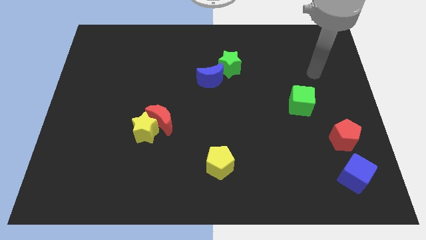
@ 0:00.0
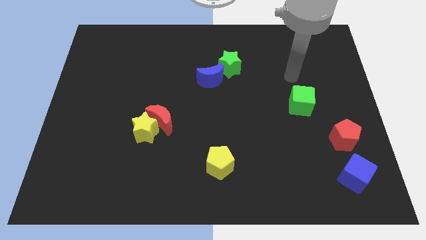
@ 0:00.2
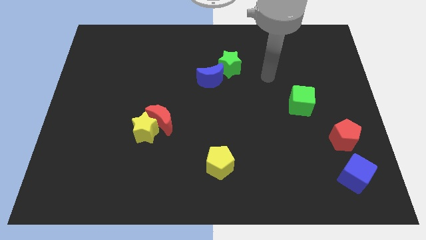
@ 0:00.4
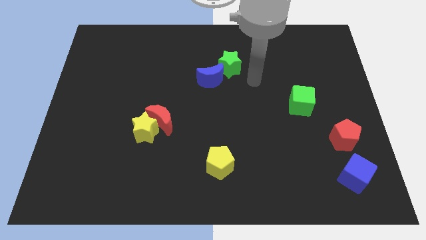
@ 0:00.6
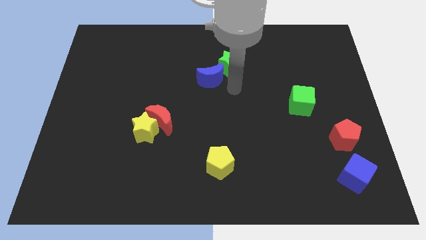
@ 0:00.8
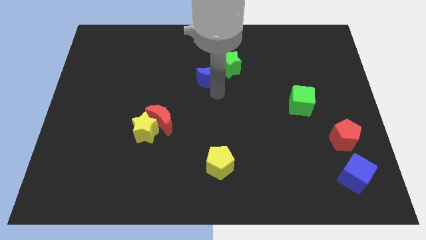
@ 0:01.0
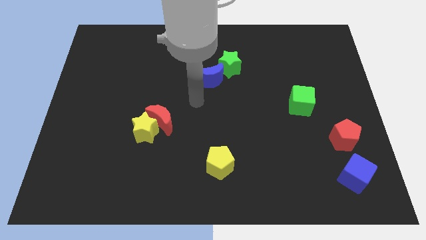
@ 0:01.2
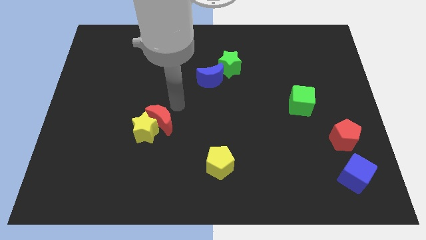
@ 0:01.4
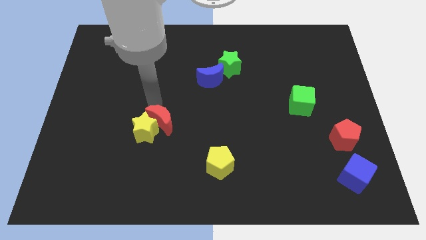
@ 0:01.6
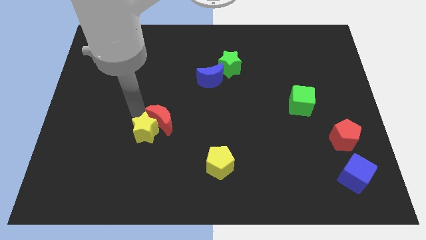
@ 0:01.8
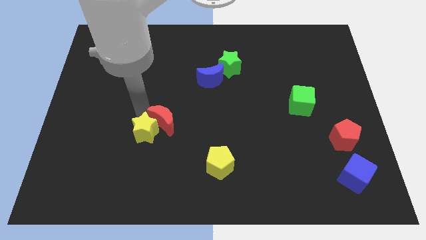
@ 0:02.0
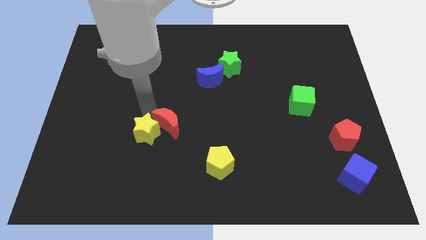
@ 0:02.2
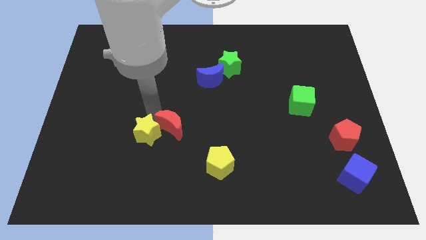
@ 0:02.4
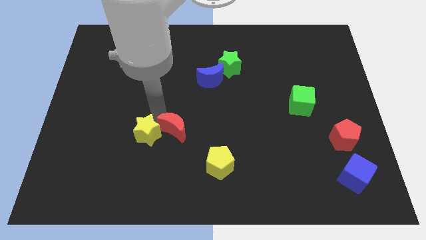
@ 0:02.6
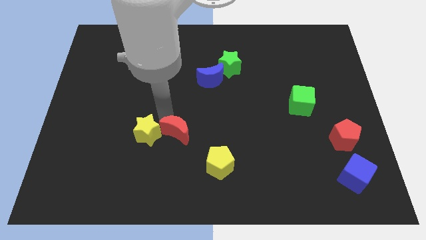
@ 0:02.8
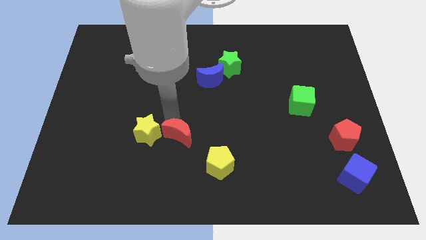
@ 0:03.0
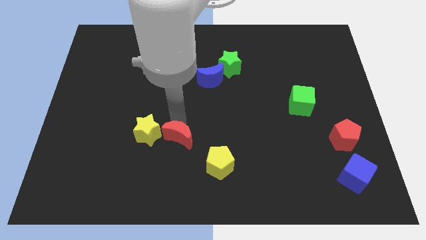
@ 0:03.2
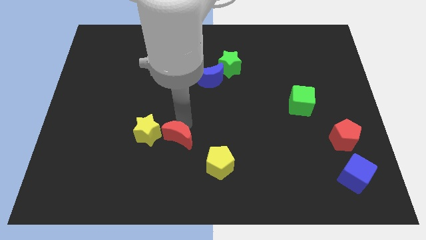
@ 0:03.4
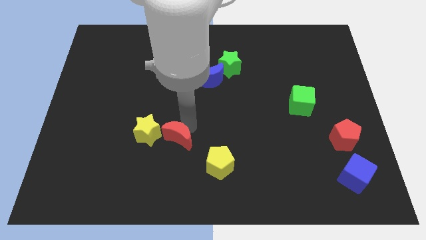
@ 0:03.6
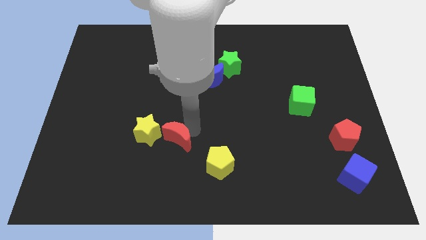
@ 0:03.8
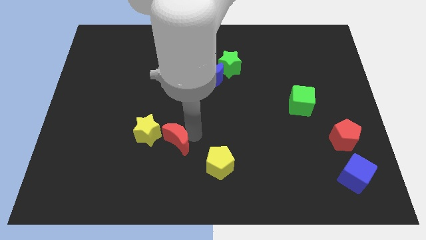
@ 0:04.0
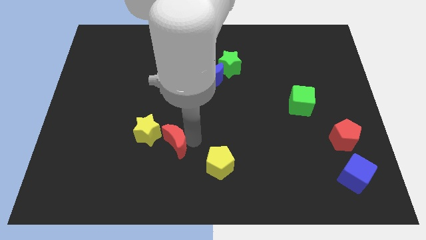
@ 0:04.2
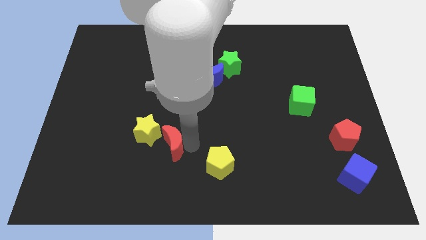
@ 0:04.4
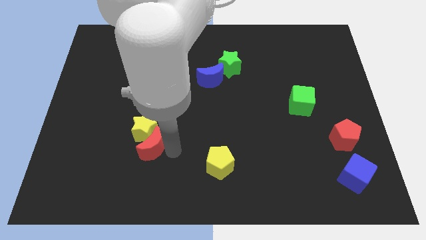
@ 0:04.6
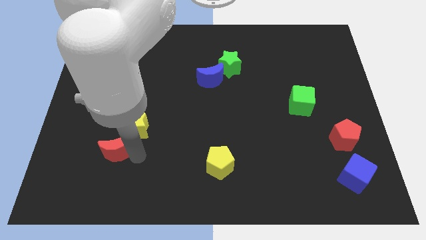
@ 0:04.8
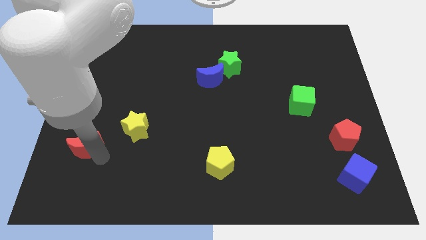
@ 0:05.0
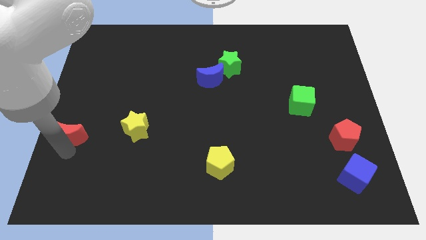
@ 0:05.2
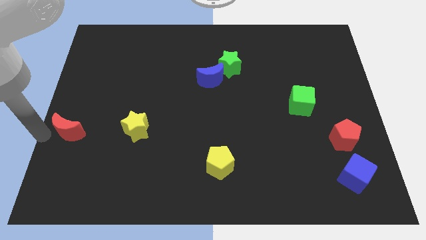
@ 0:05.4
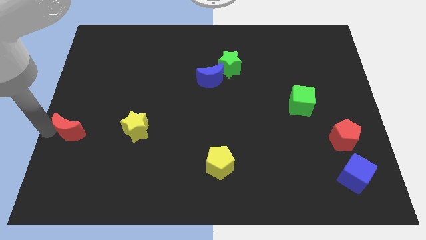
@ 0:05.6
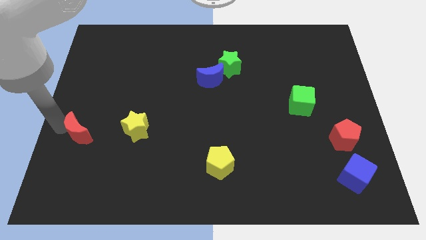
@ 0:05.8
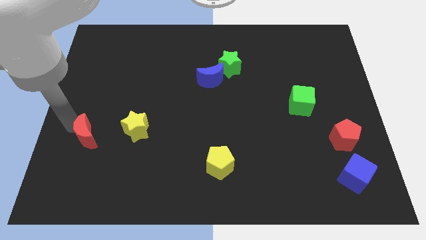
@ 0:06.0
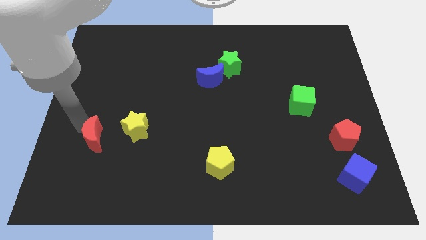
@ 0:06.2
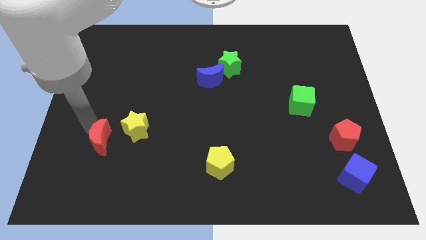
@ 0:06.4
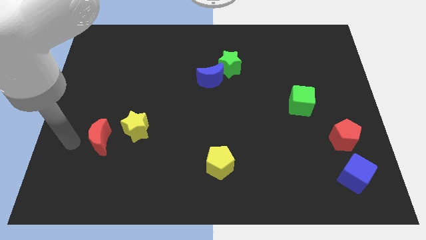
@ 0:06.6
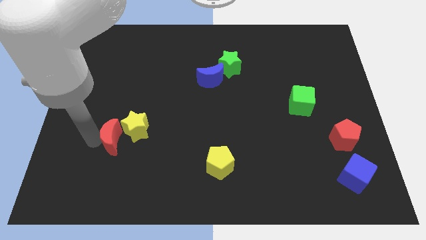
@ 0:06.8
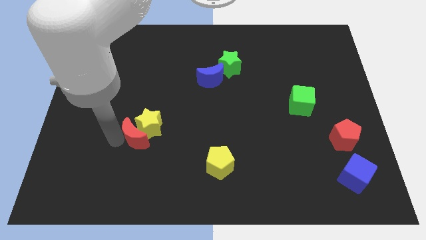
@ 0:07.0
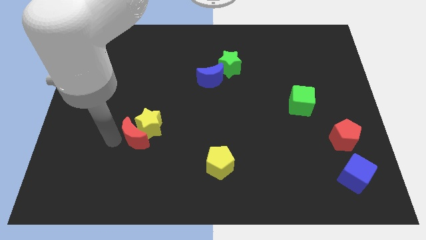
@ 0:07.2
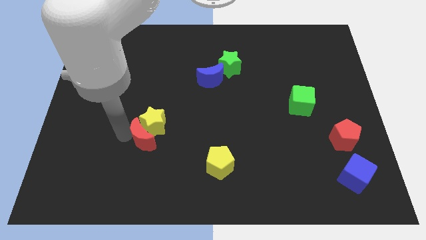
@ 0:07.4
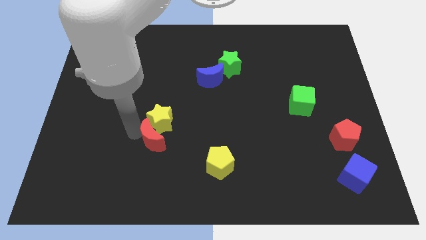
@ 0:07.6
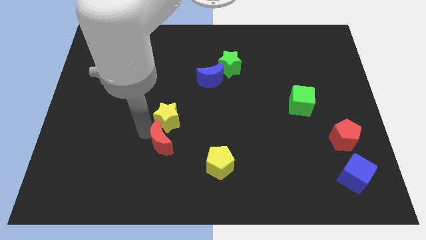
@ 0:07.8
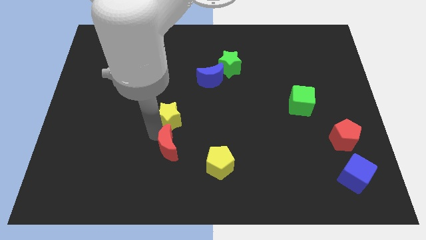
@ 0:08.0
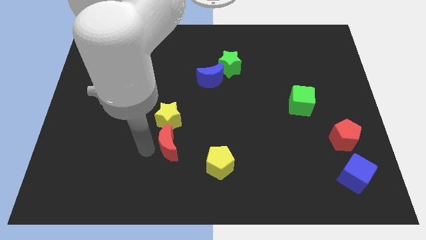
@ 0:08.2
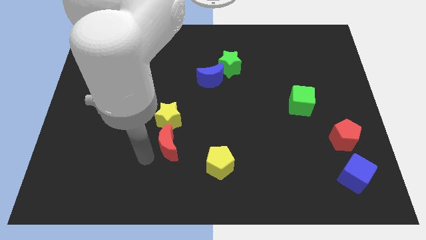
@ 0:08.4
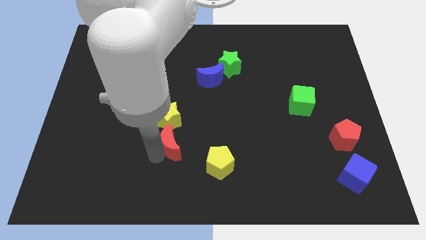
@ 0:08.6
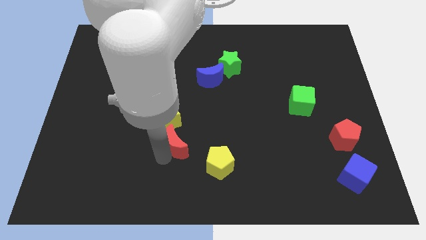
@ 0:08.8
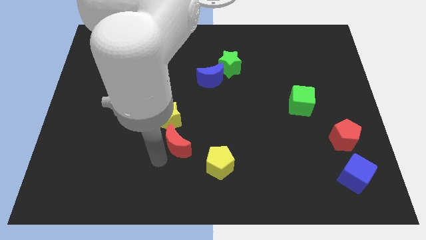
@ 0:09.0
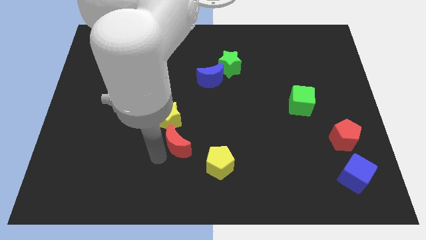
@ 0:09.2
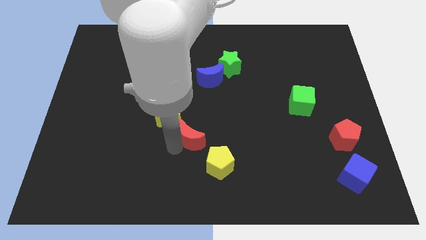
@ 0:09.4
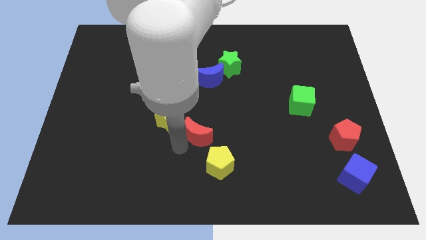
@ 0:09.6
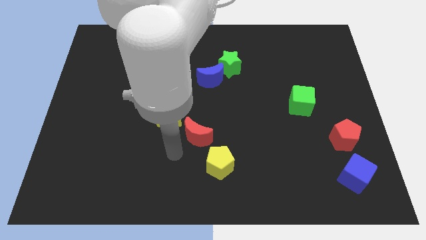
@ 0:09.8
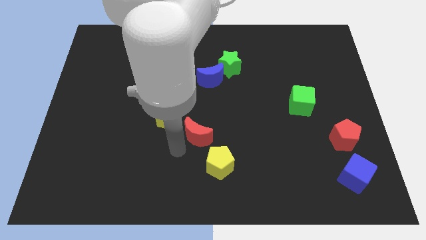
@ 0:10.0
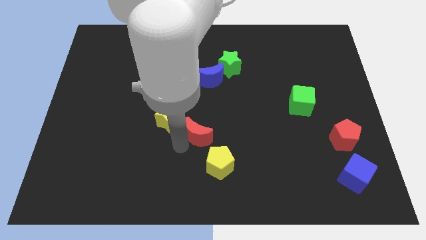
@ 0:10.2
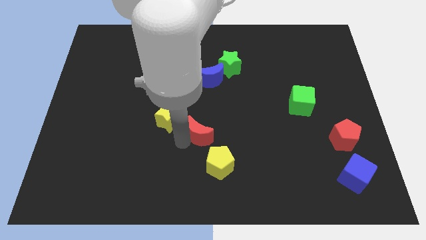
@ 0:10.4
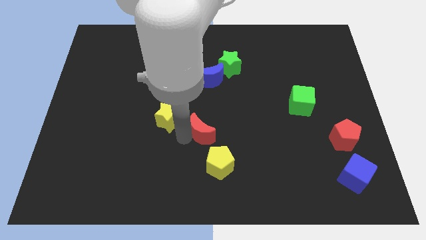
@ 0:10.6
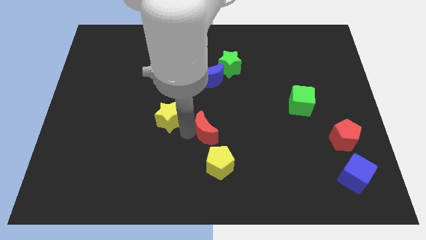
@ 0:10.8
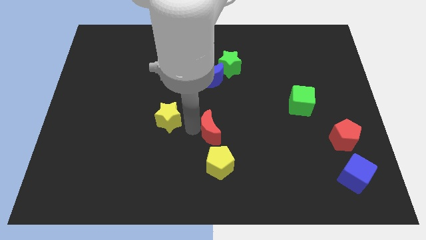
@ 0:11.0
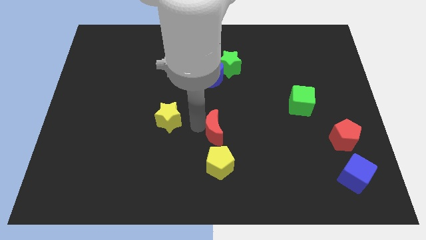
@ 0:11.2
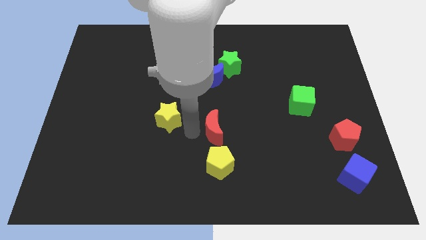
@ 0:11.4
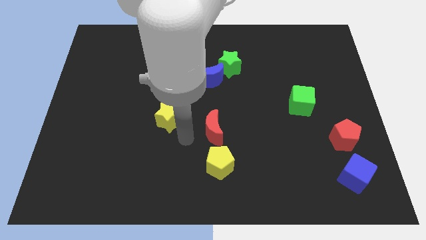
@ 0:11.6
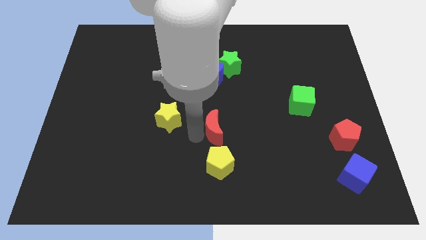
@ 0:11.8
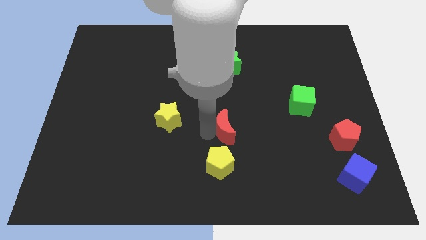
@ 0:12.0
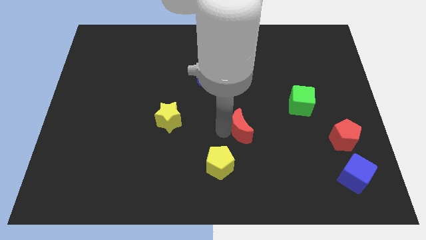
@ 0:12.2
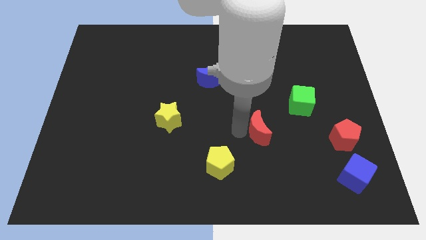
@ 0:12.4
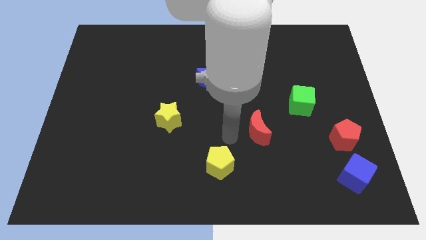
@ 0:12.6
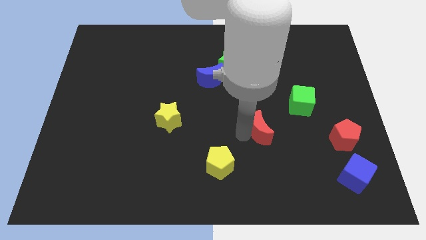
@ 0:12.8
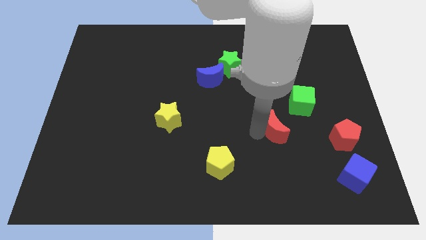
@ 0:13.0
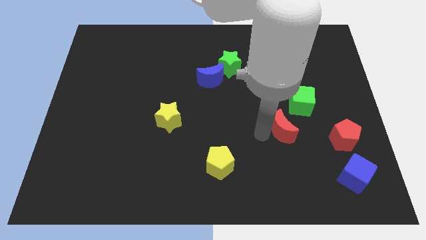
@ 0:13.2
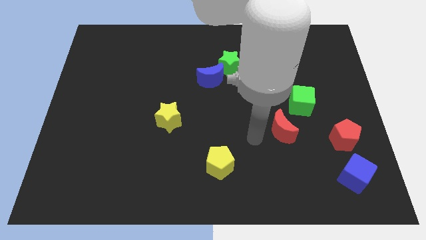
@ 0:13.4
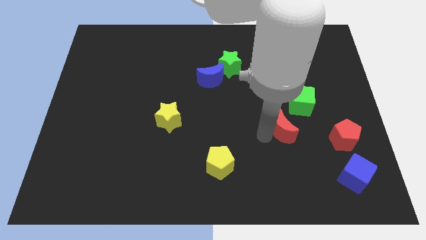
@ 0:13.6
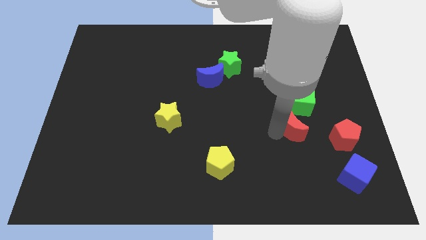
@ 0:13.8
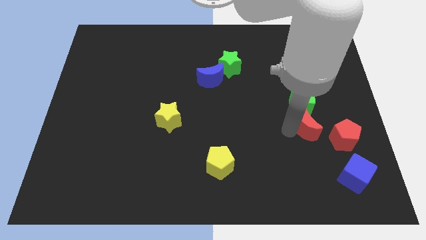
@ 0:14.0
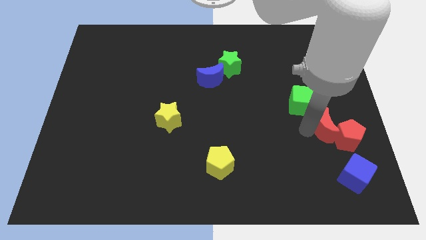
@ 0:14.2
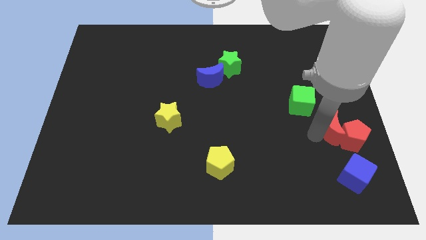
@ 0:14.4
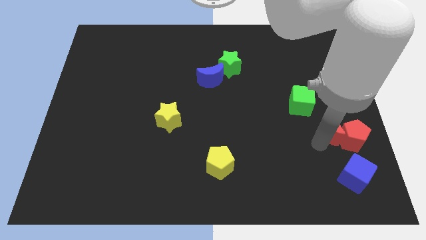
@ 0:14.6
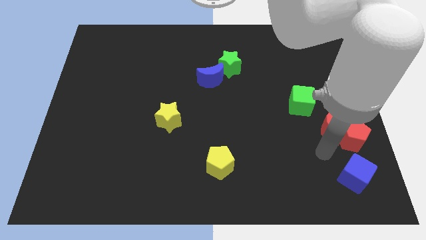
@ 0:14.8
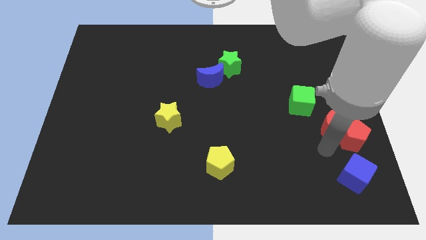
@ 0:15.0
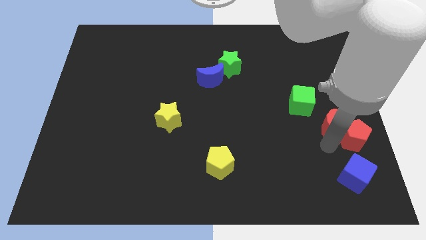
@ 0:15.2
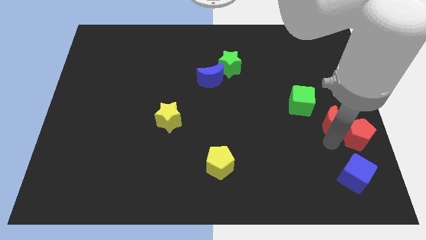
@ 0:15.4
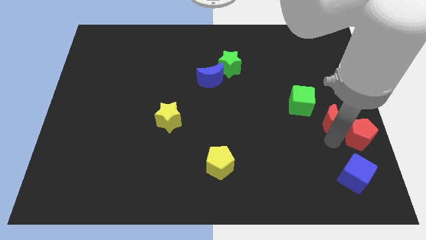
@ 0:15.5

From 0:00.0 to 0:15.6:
push the red moon to the right side

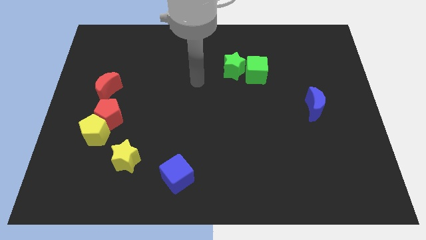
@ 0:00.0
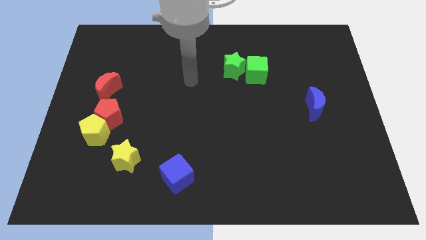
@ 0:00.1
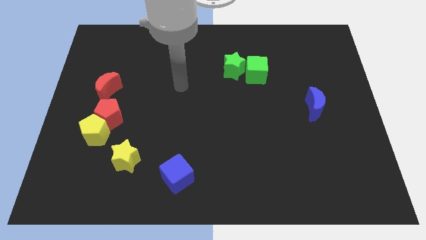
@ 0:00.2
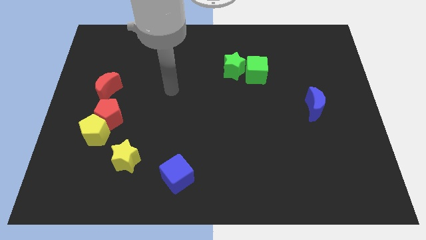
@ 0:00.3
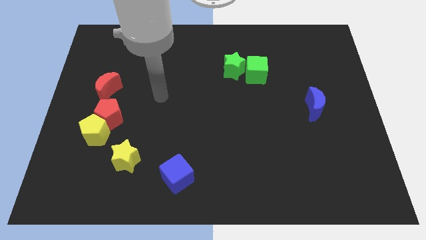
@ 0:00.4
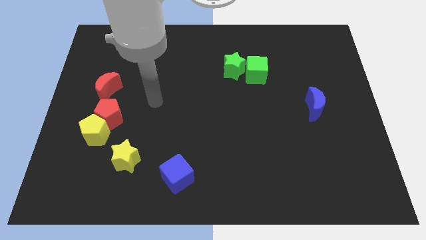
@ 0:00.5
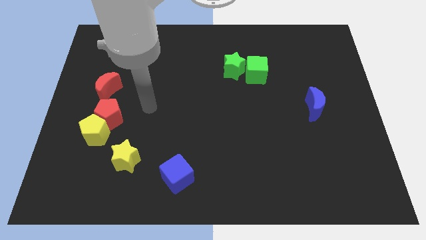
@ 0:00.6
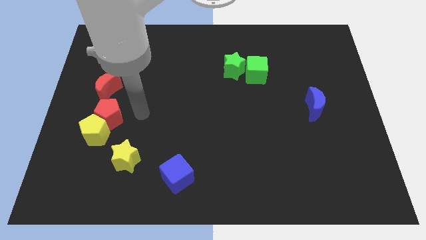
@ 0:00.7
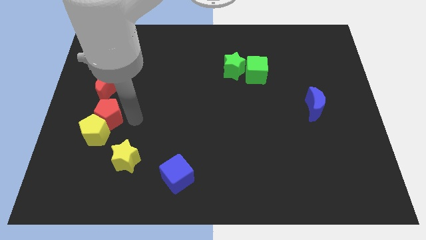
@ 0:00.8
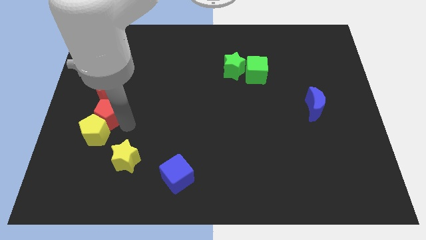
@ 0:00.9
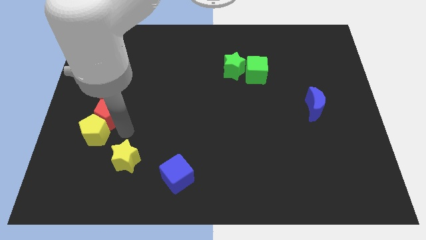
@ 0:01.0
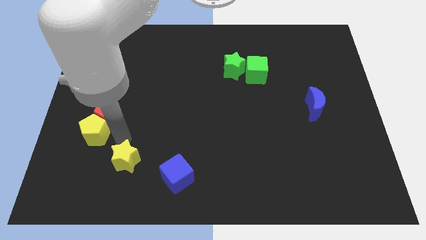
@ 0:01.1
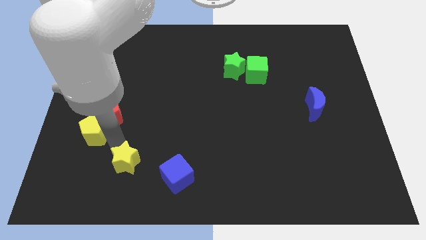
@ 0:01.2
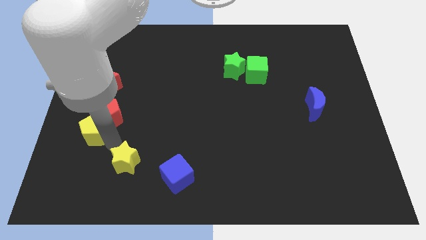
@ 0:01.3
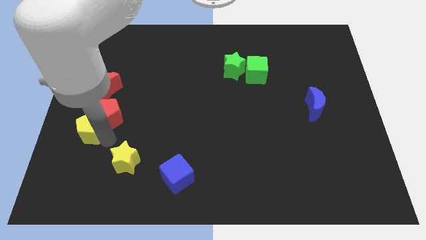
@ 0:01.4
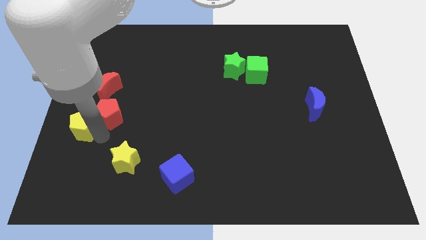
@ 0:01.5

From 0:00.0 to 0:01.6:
put the yellow pentagon to the left side
